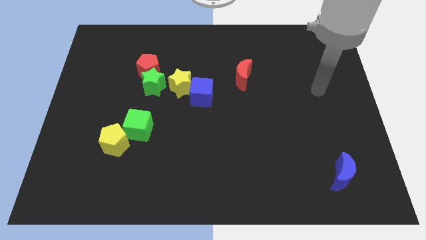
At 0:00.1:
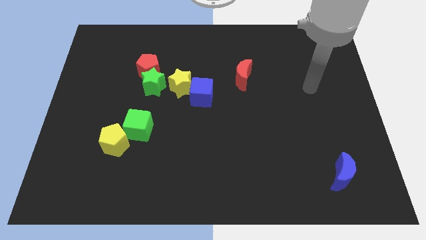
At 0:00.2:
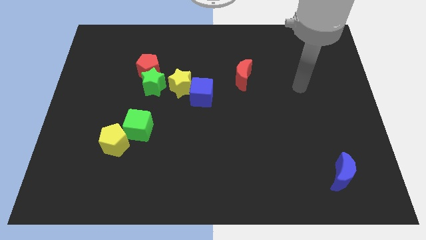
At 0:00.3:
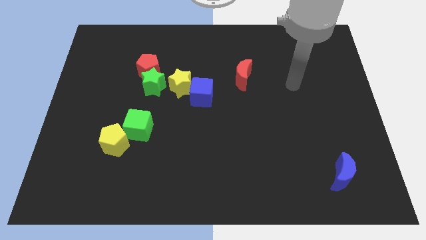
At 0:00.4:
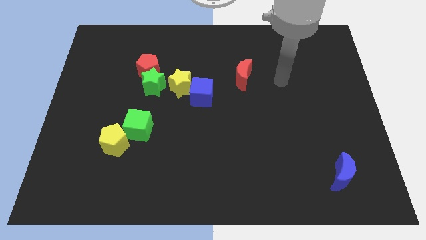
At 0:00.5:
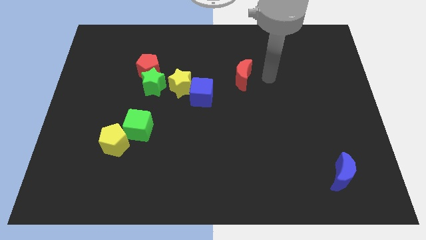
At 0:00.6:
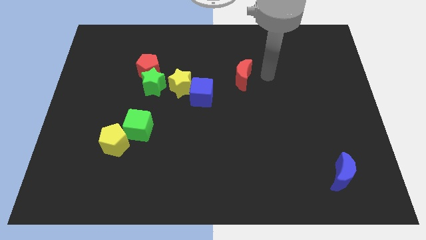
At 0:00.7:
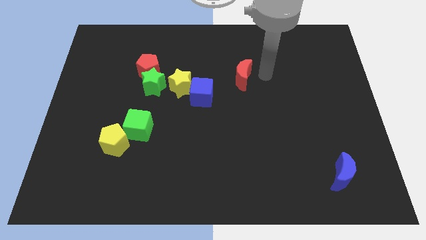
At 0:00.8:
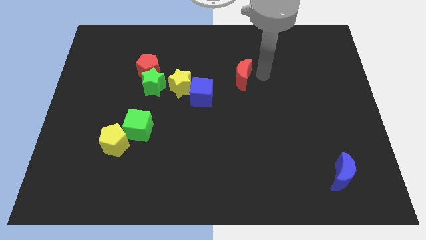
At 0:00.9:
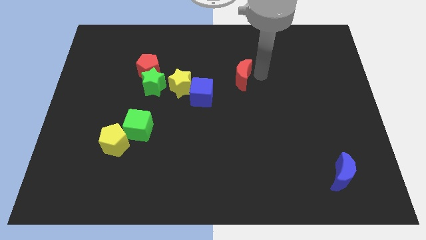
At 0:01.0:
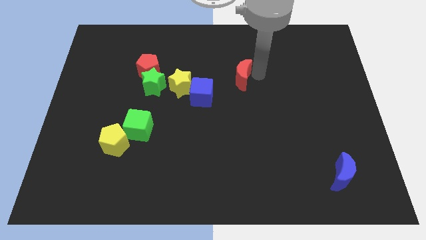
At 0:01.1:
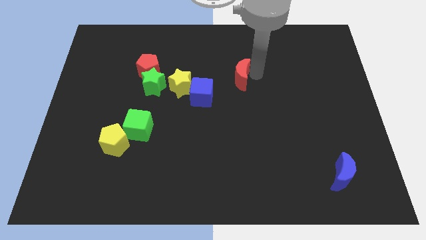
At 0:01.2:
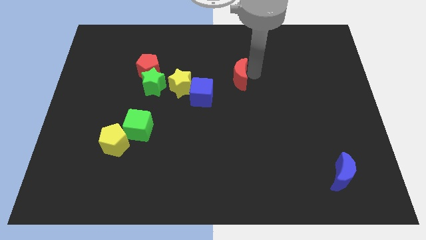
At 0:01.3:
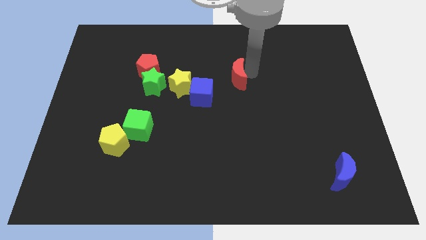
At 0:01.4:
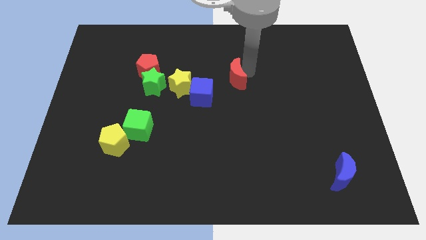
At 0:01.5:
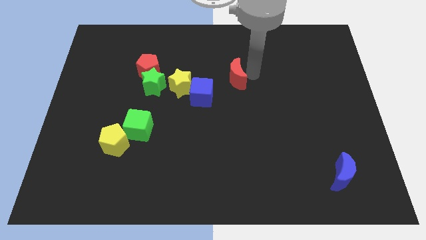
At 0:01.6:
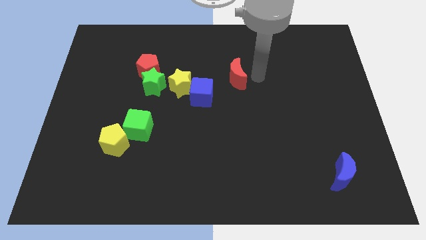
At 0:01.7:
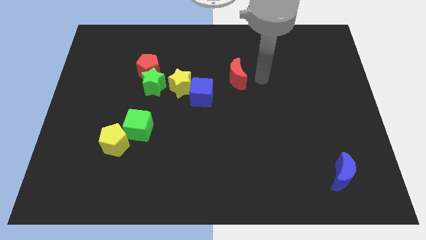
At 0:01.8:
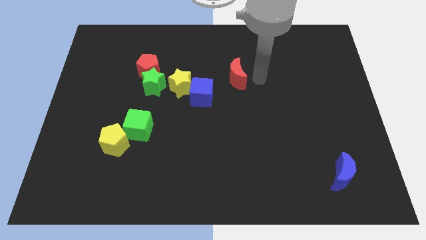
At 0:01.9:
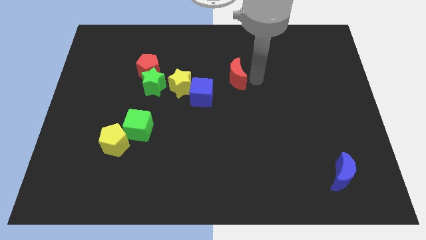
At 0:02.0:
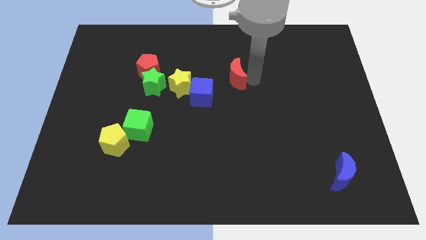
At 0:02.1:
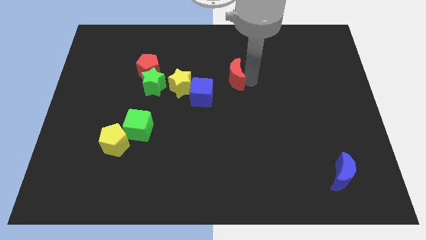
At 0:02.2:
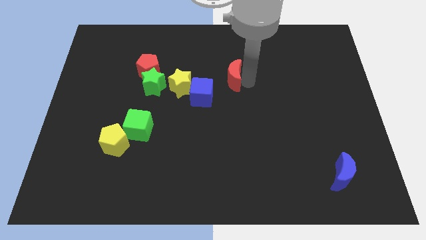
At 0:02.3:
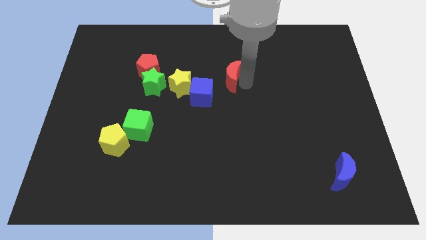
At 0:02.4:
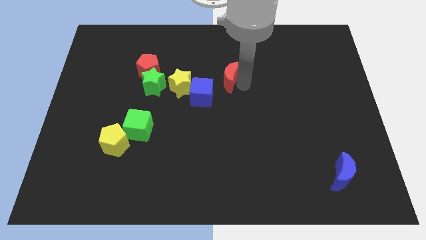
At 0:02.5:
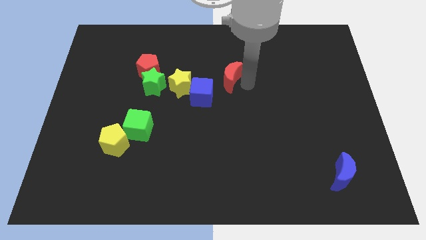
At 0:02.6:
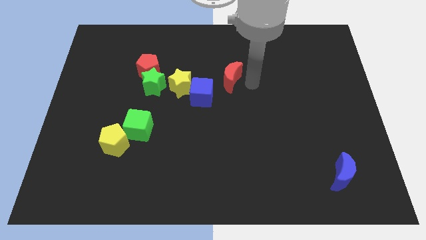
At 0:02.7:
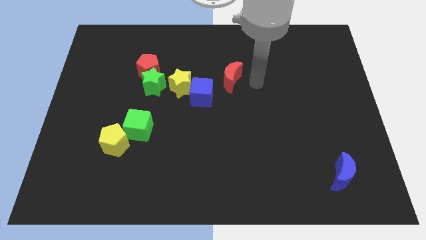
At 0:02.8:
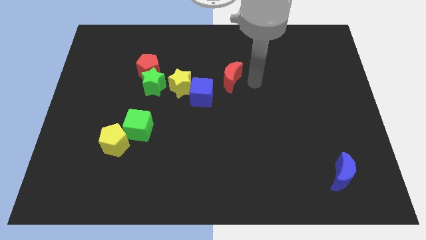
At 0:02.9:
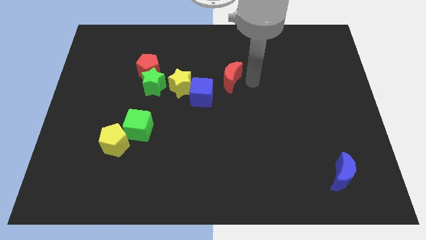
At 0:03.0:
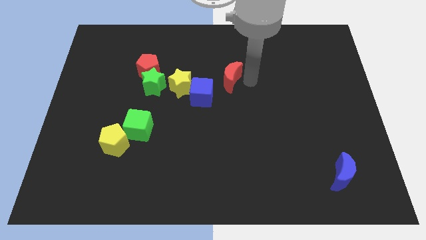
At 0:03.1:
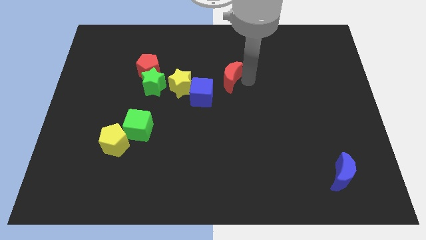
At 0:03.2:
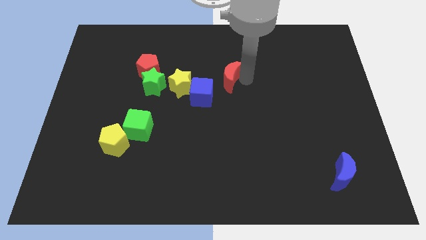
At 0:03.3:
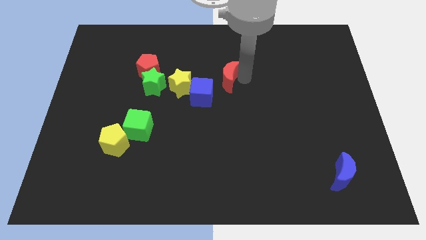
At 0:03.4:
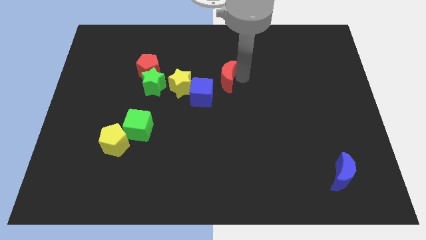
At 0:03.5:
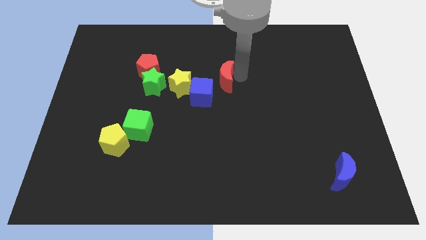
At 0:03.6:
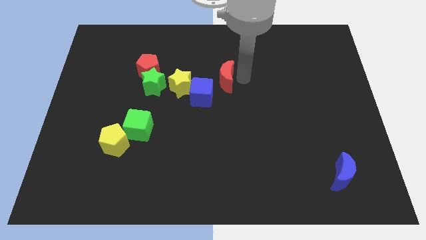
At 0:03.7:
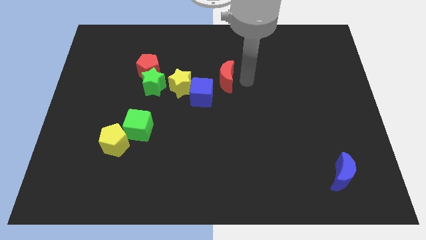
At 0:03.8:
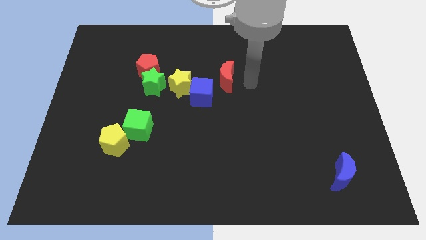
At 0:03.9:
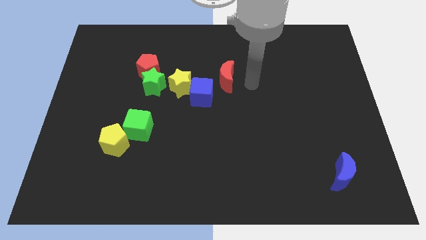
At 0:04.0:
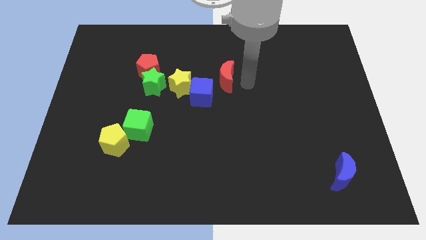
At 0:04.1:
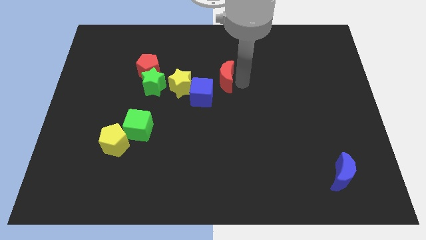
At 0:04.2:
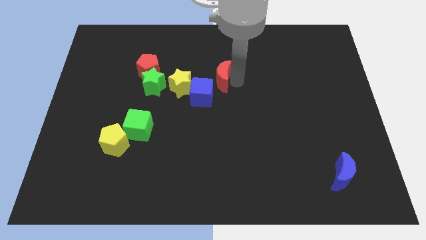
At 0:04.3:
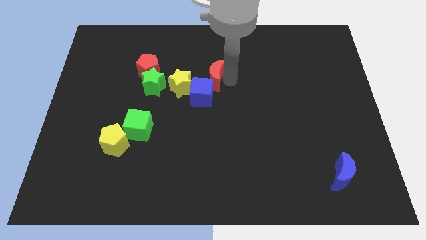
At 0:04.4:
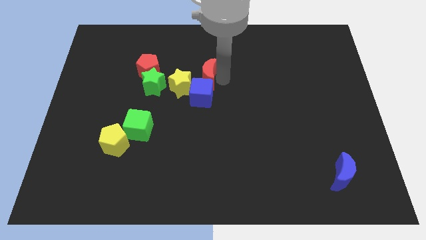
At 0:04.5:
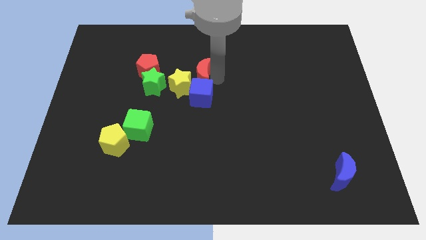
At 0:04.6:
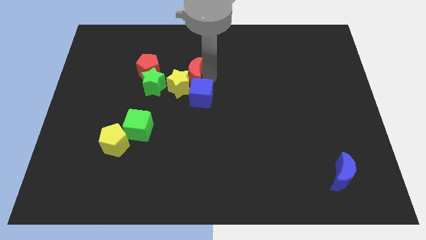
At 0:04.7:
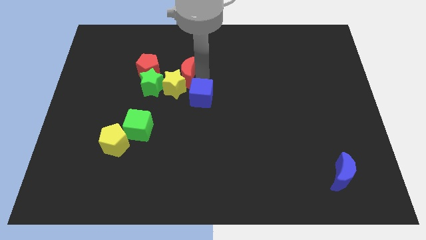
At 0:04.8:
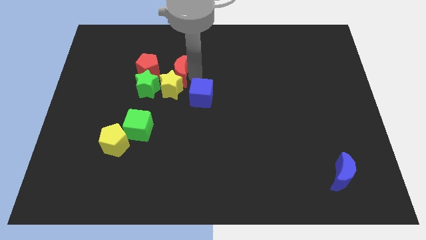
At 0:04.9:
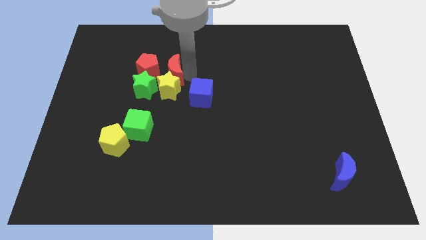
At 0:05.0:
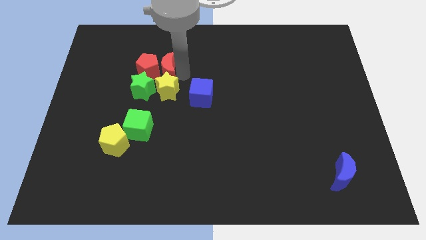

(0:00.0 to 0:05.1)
push the red moon to the red pentagon

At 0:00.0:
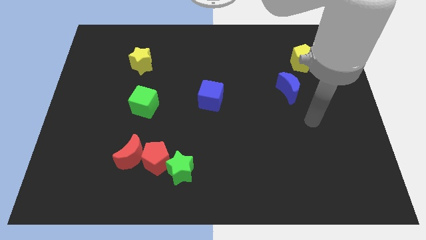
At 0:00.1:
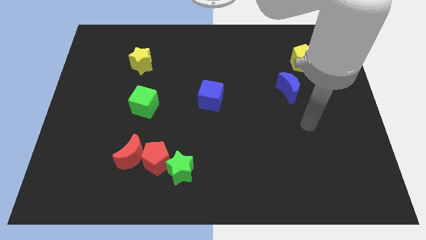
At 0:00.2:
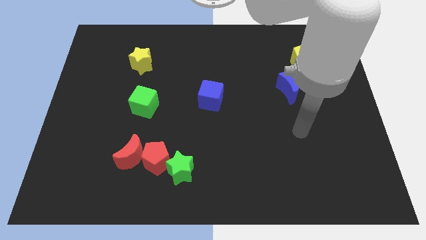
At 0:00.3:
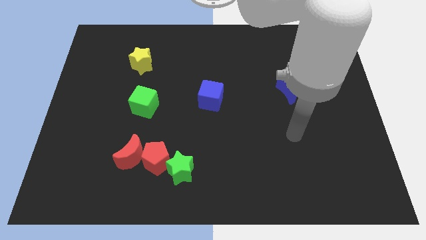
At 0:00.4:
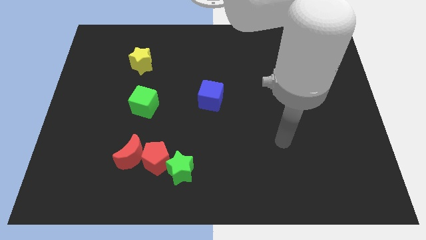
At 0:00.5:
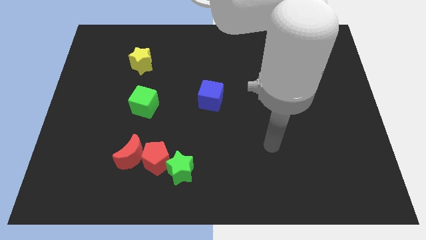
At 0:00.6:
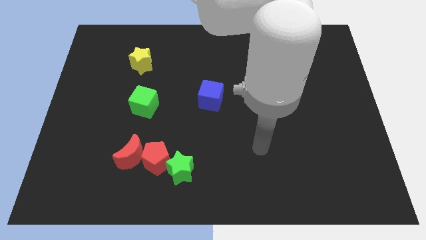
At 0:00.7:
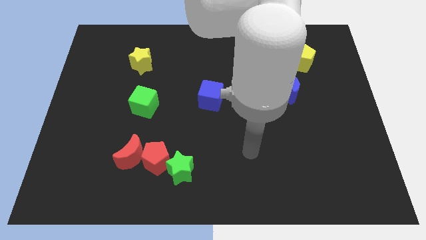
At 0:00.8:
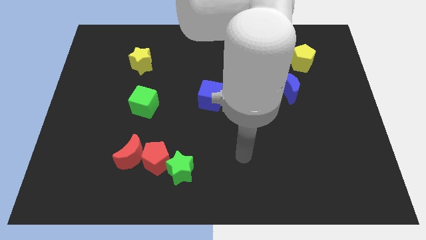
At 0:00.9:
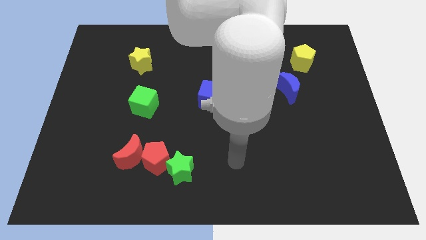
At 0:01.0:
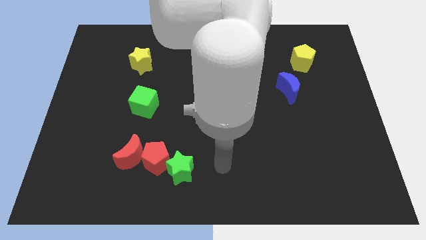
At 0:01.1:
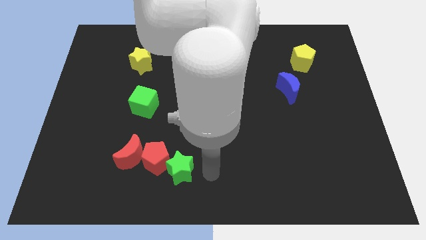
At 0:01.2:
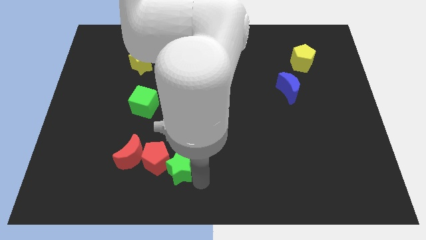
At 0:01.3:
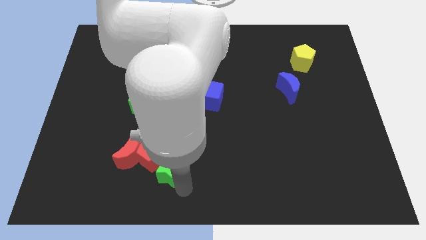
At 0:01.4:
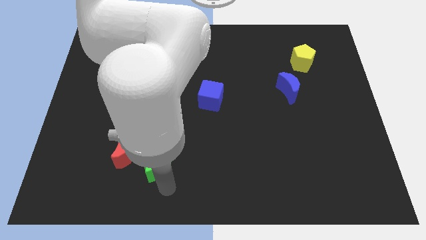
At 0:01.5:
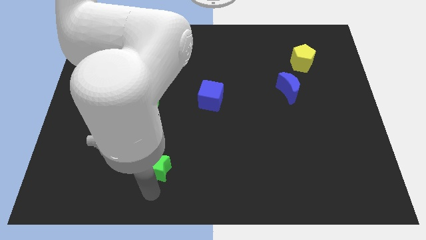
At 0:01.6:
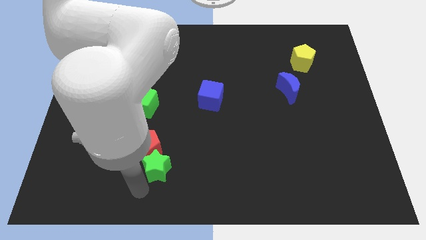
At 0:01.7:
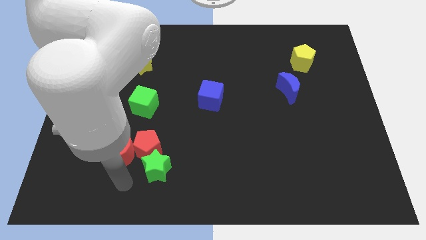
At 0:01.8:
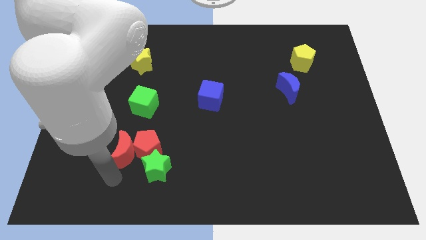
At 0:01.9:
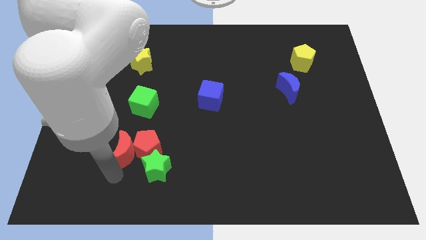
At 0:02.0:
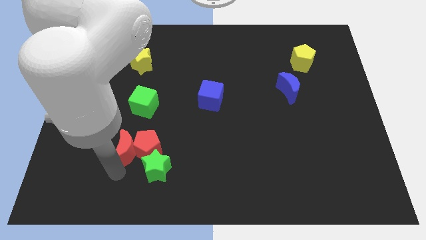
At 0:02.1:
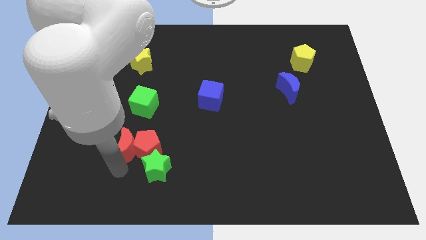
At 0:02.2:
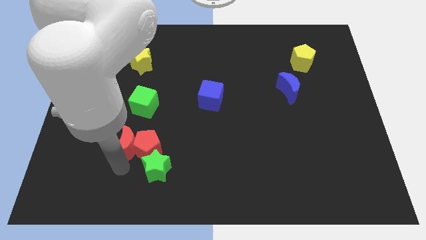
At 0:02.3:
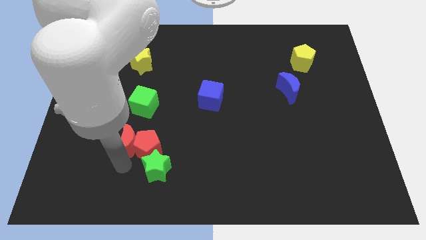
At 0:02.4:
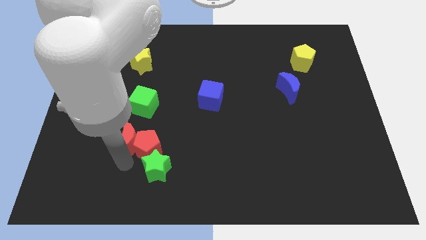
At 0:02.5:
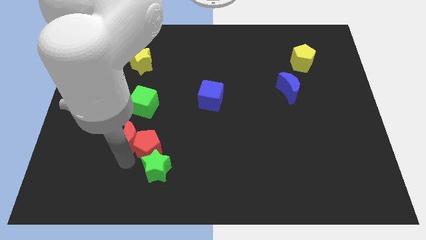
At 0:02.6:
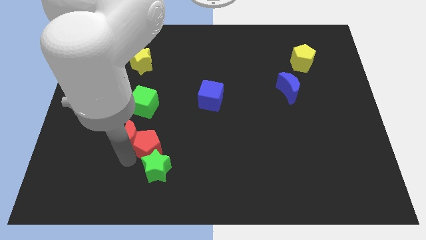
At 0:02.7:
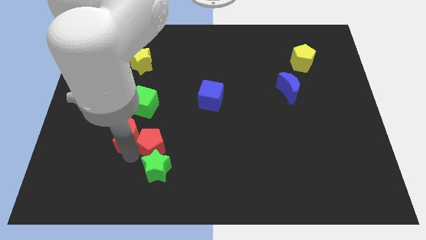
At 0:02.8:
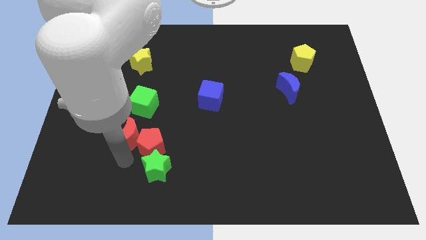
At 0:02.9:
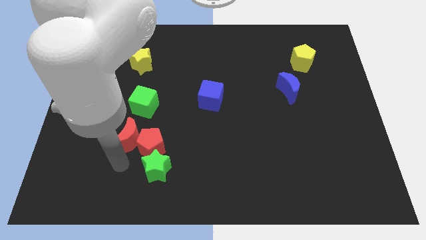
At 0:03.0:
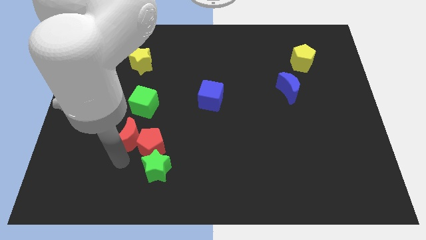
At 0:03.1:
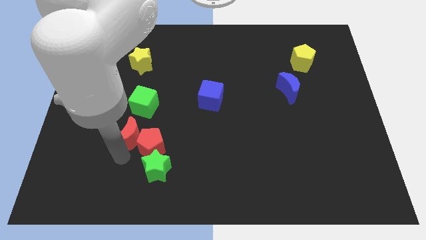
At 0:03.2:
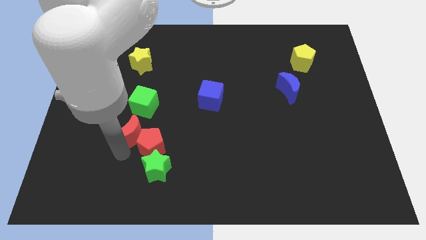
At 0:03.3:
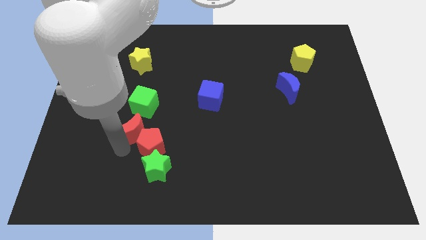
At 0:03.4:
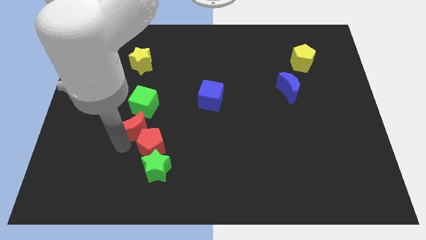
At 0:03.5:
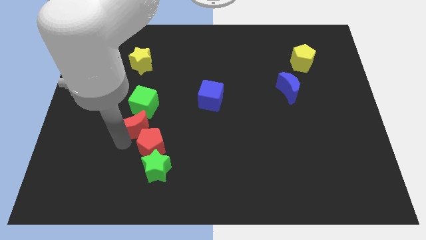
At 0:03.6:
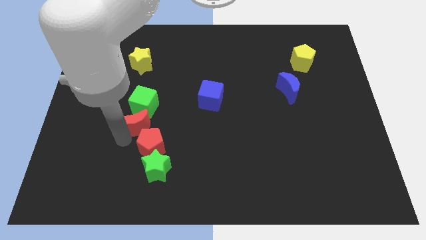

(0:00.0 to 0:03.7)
put the red moon towards the green cube
